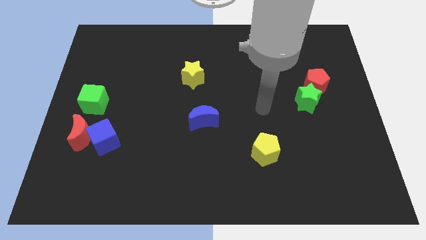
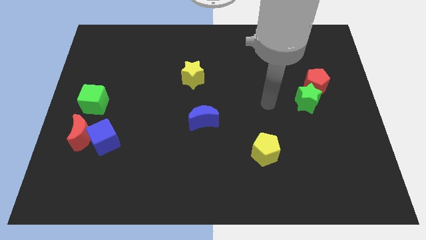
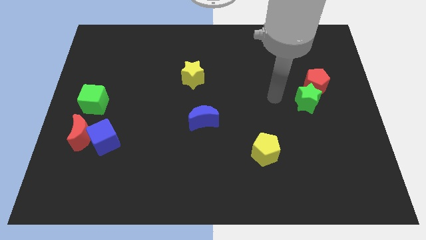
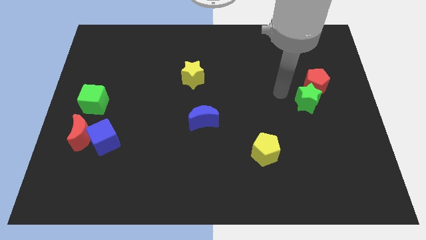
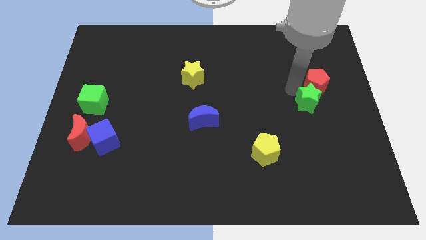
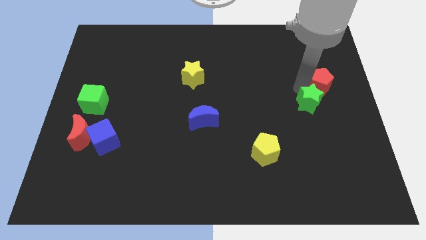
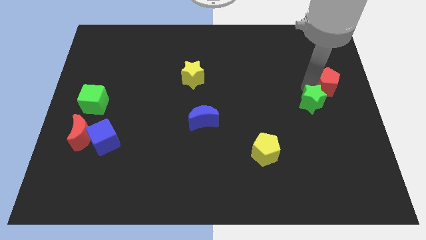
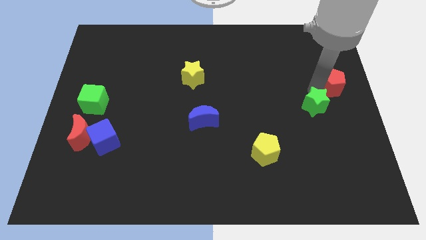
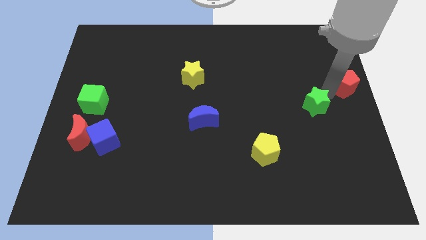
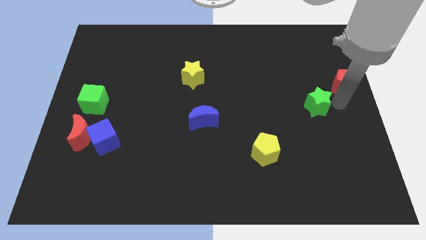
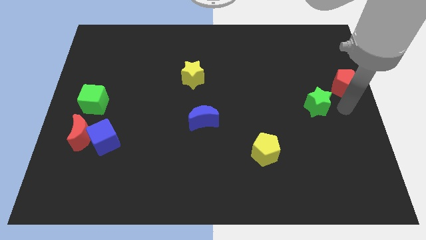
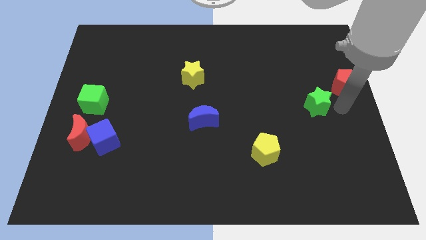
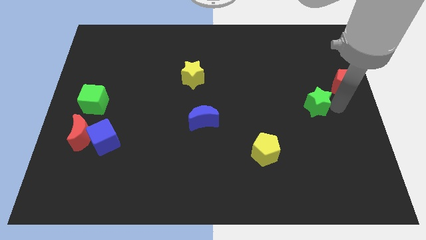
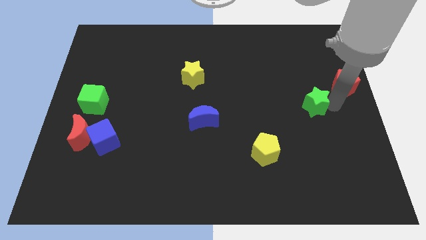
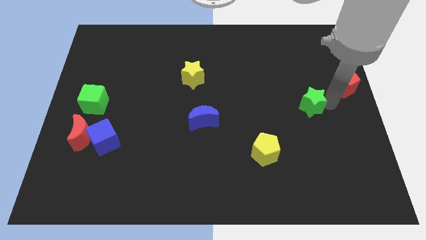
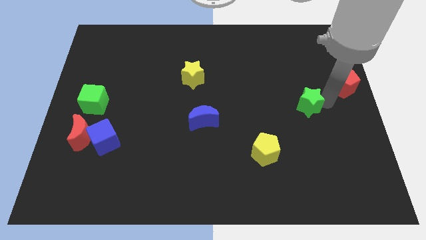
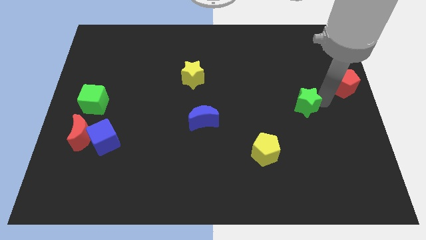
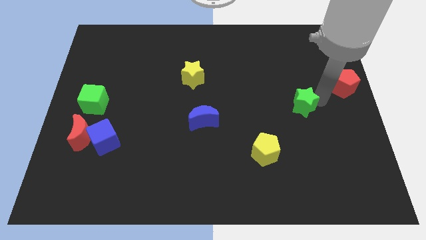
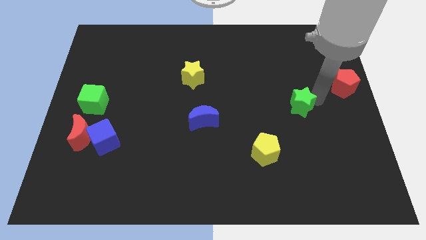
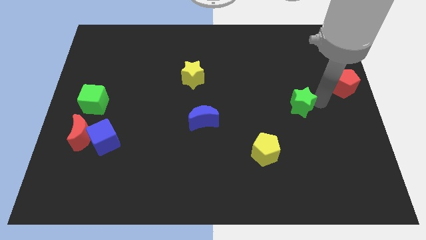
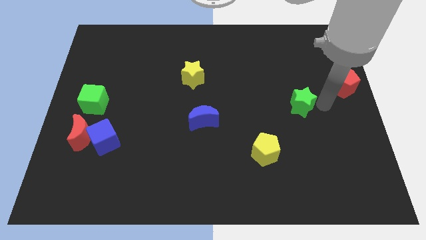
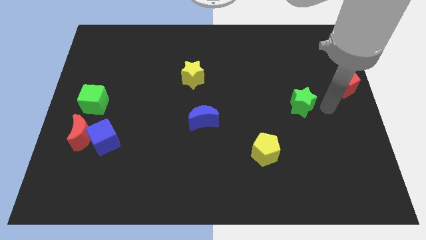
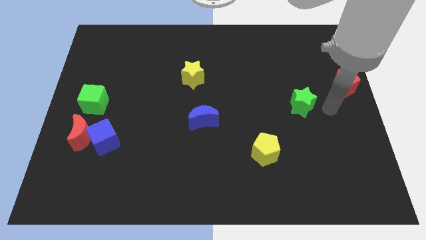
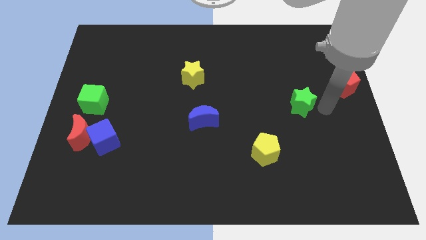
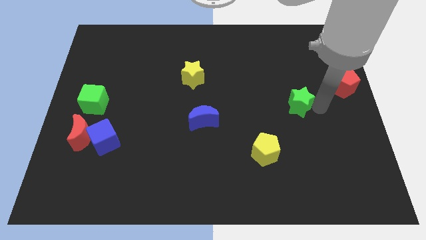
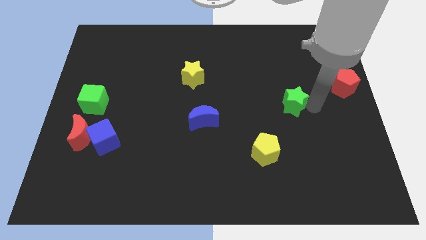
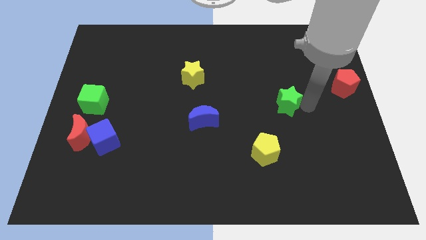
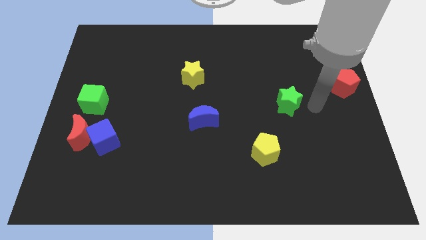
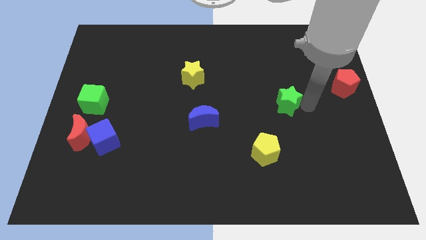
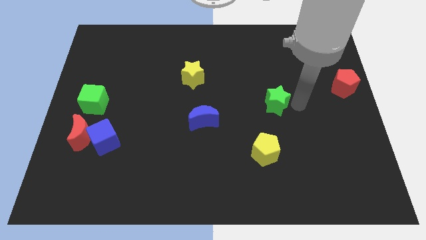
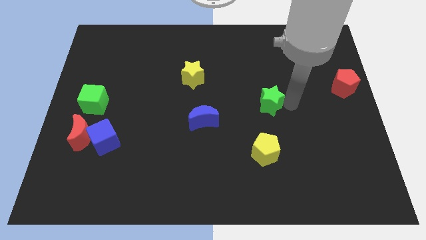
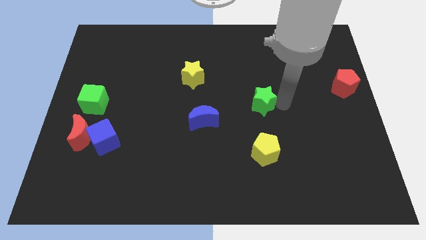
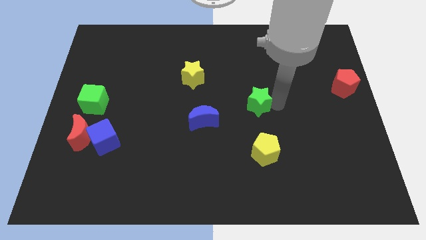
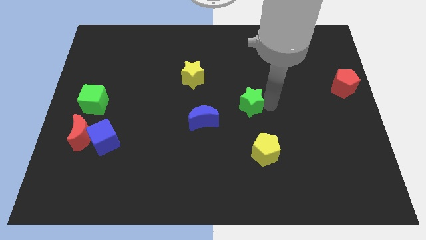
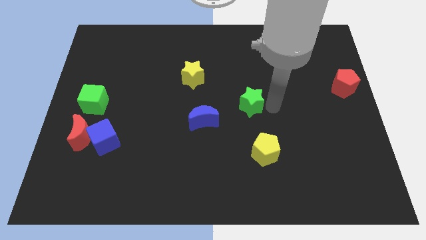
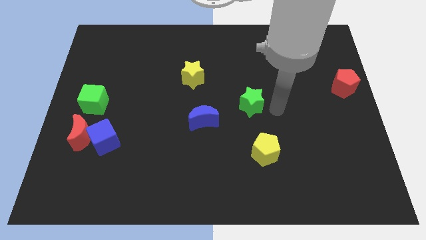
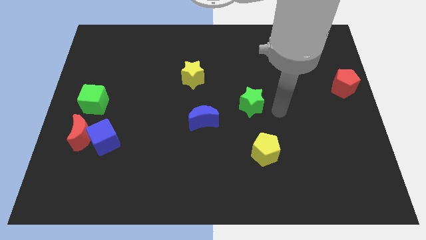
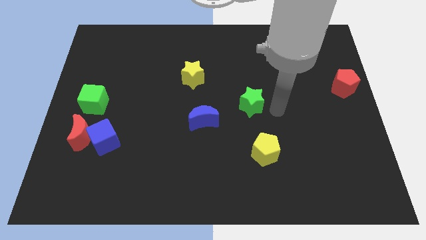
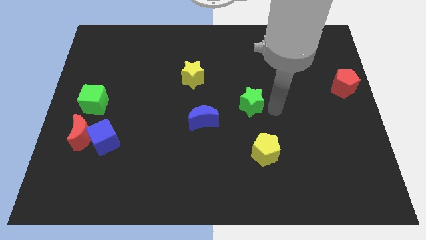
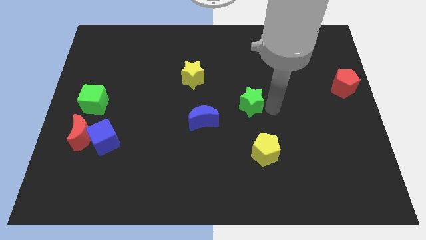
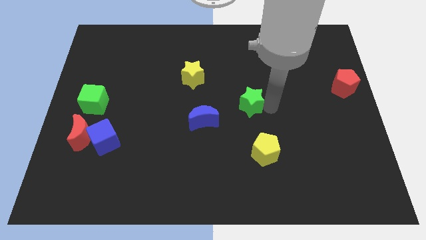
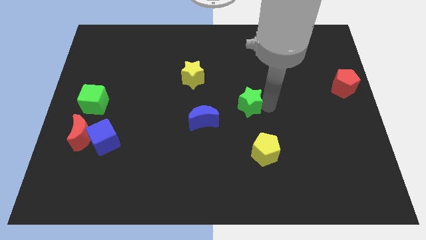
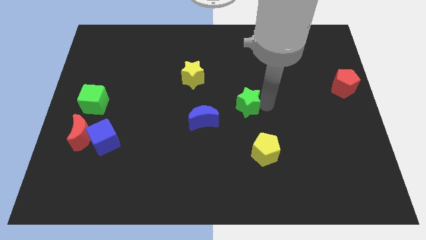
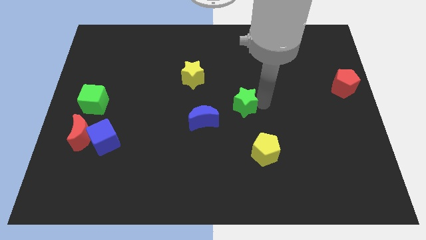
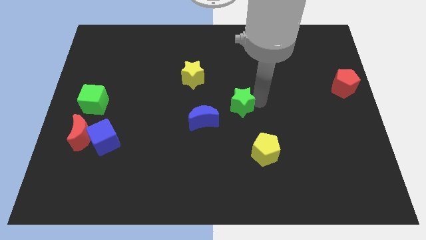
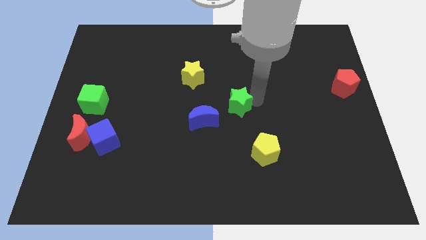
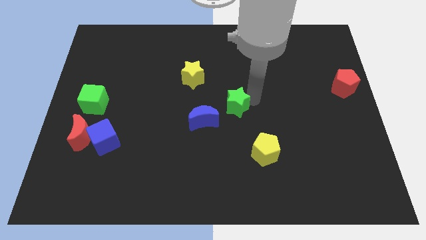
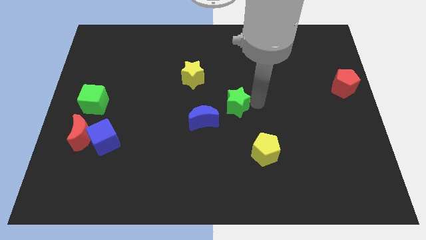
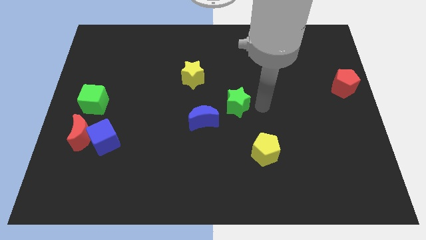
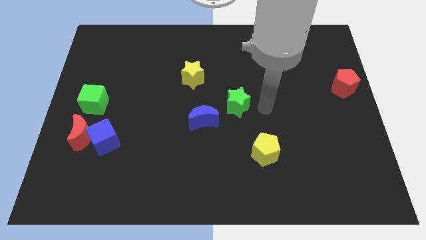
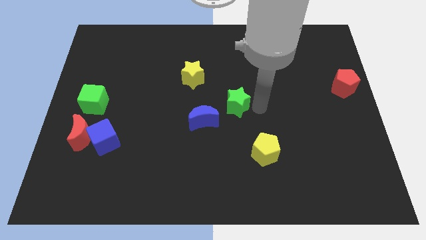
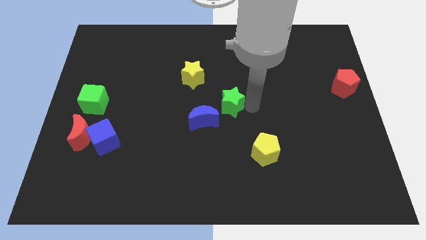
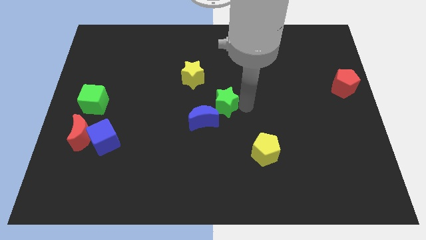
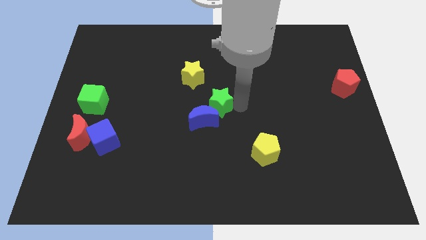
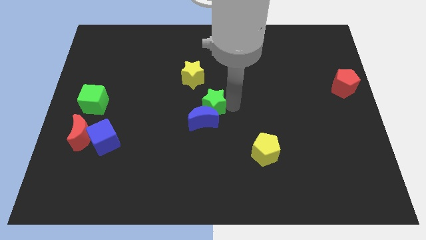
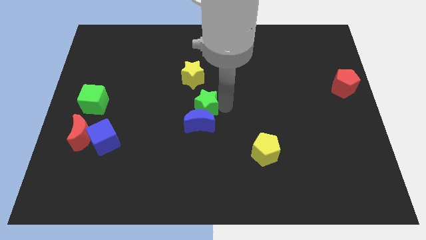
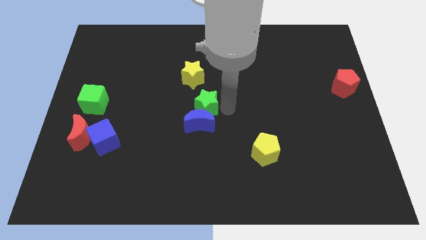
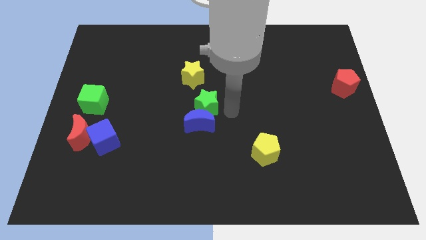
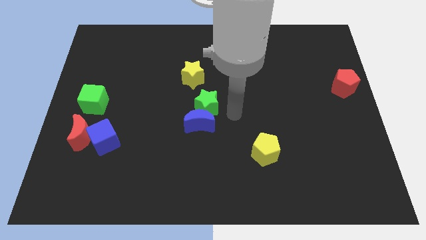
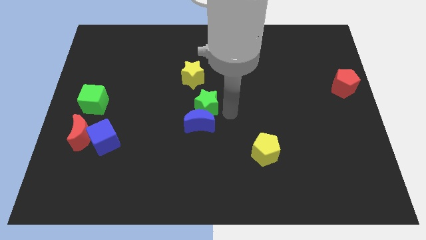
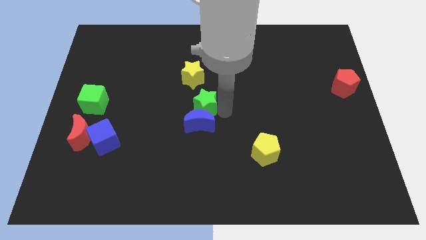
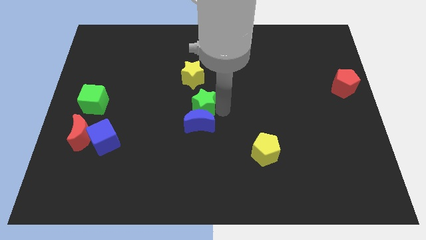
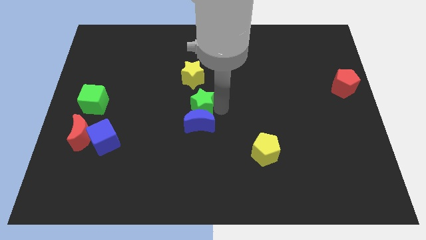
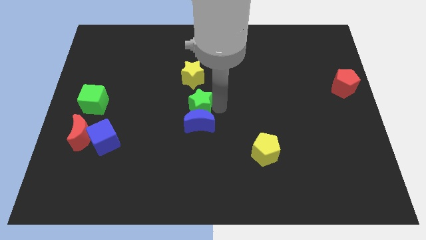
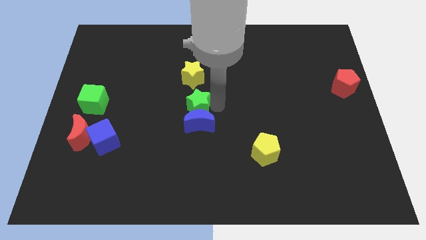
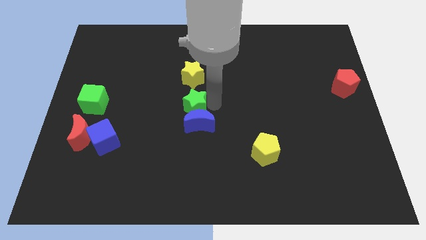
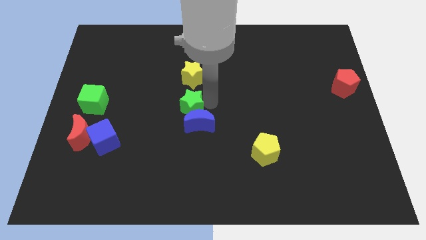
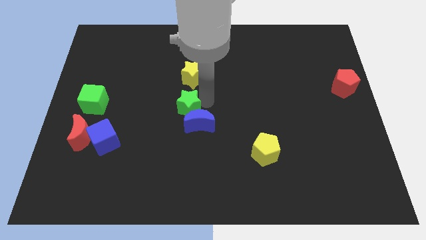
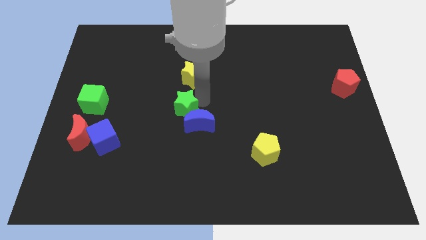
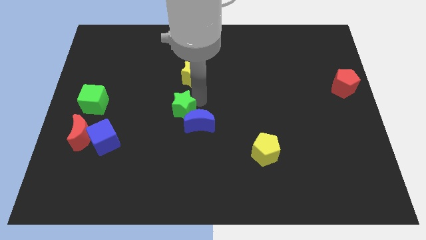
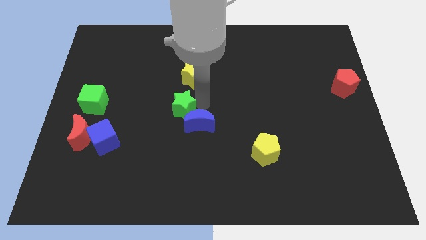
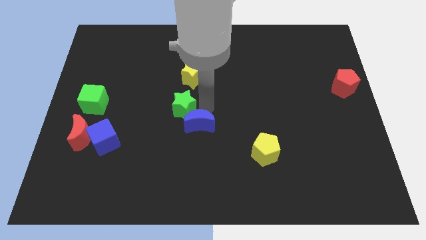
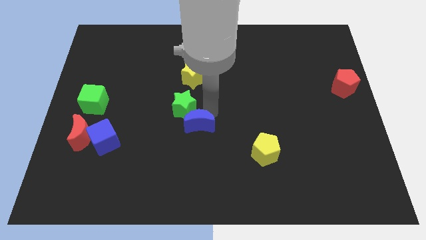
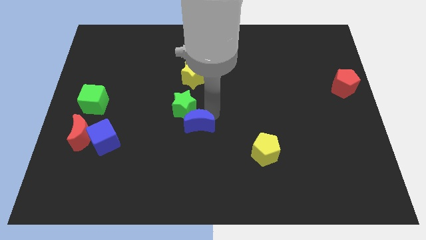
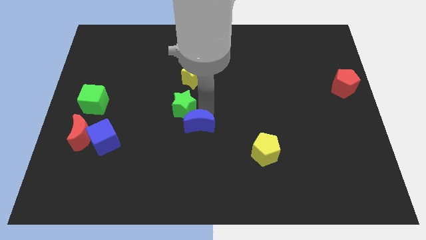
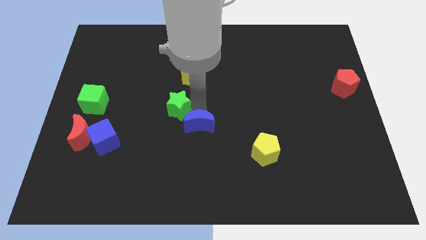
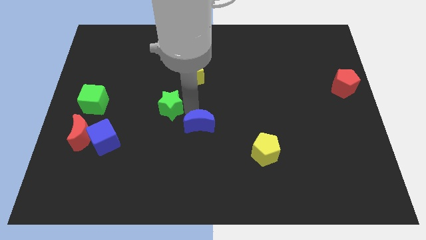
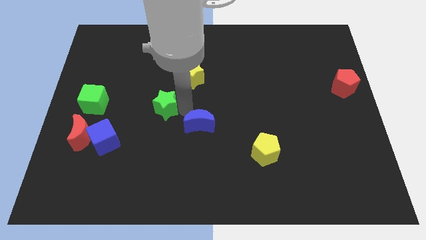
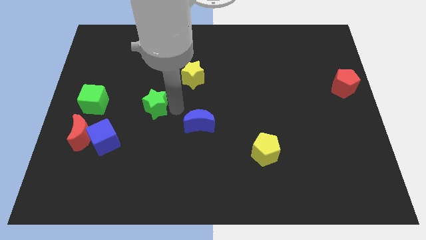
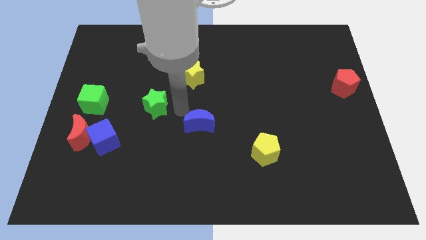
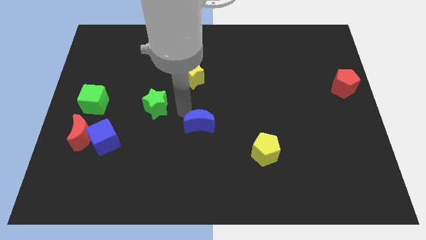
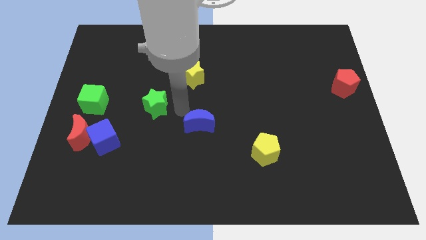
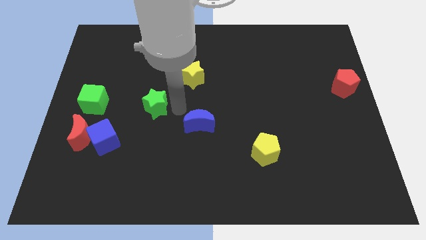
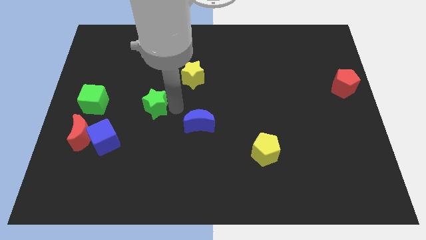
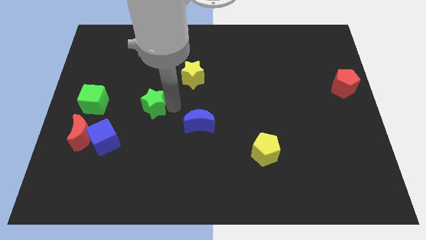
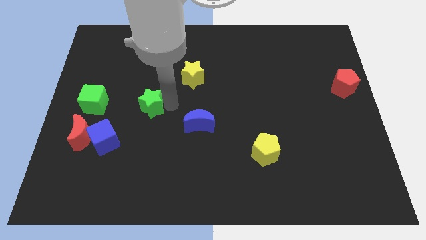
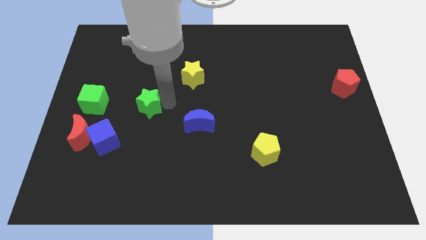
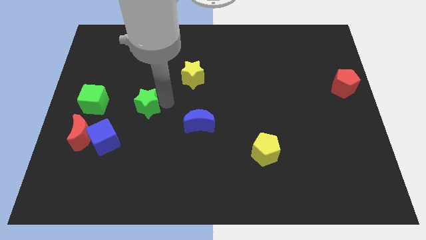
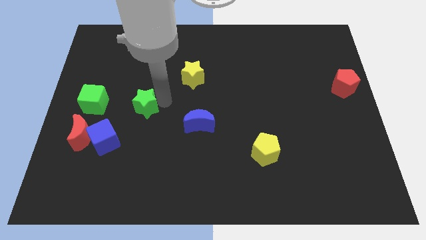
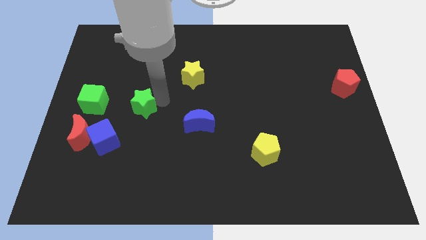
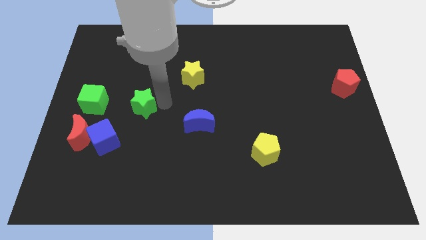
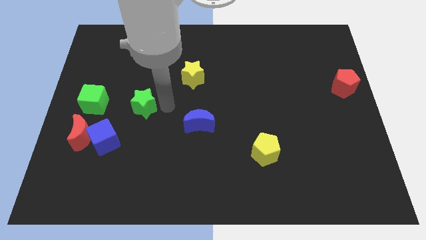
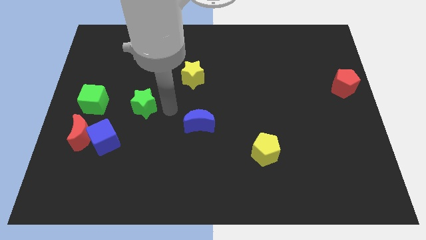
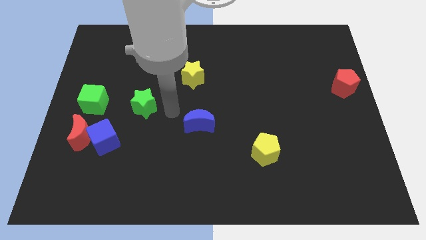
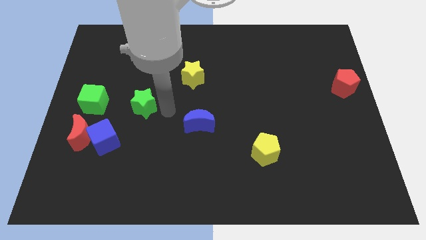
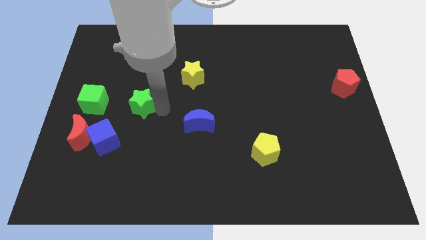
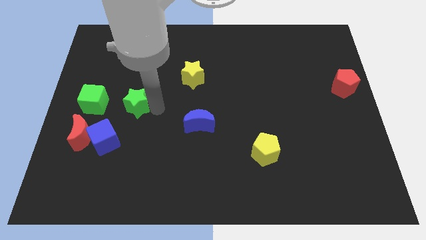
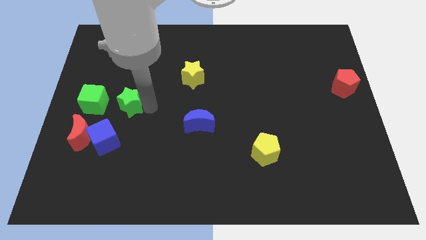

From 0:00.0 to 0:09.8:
move the green star to the top of the blue cube
